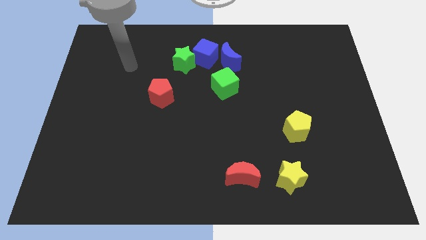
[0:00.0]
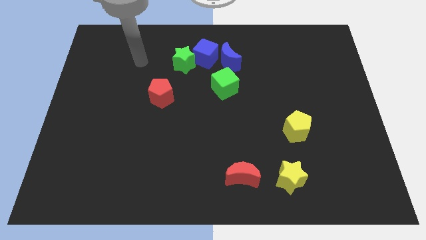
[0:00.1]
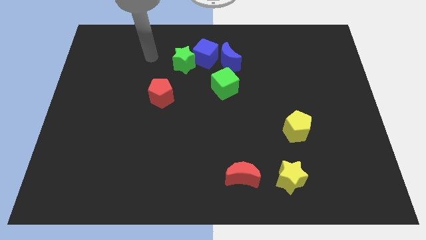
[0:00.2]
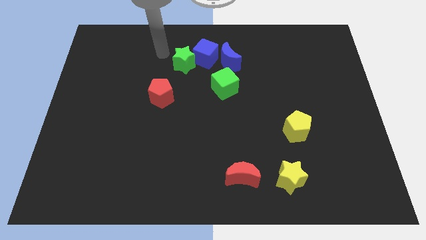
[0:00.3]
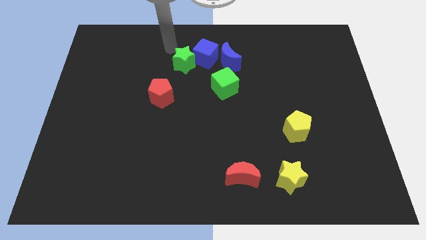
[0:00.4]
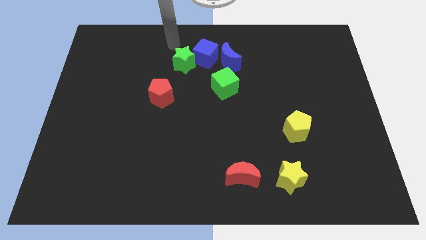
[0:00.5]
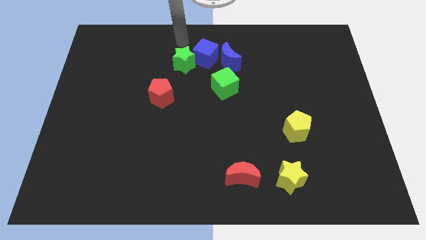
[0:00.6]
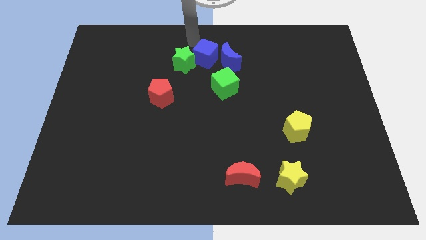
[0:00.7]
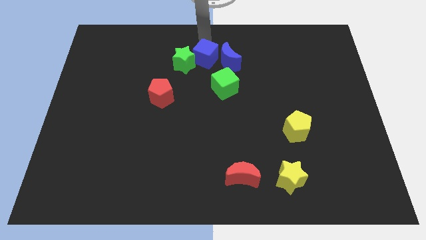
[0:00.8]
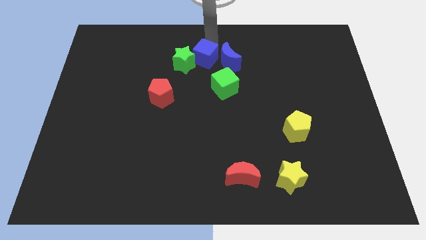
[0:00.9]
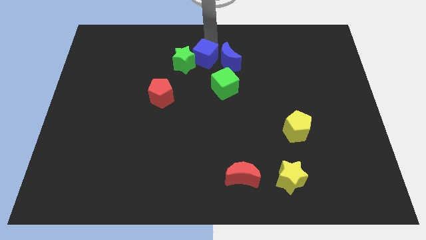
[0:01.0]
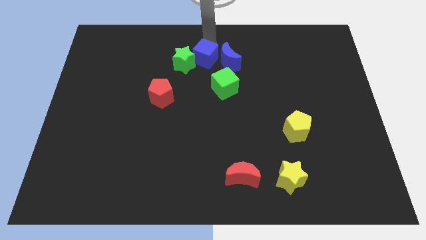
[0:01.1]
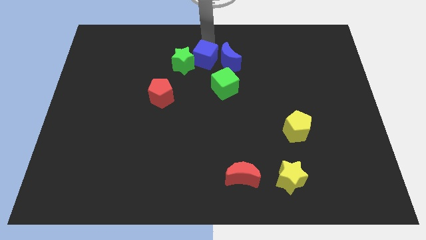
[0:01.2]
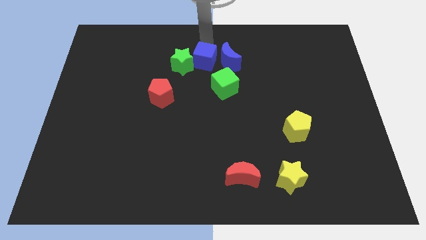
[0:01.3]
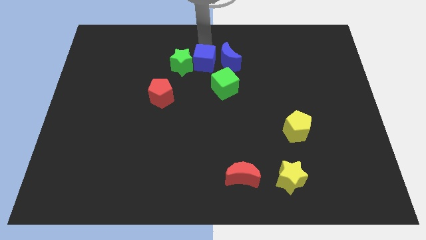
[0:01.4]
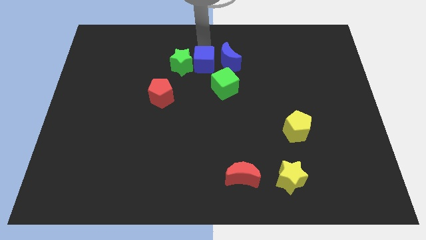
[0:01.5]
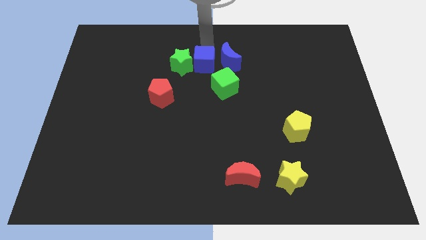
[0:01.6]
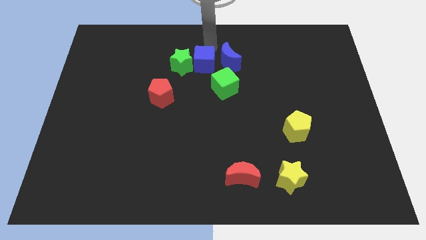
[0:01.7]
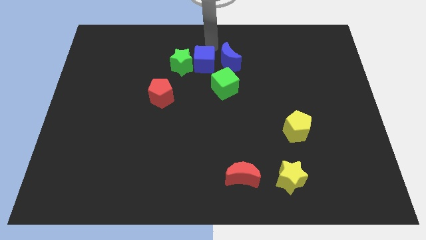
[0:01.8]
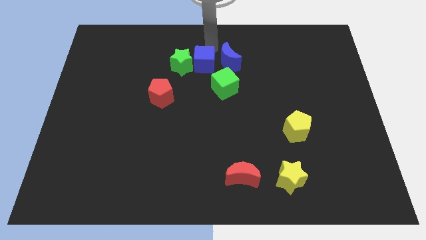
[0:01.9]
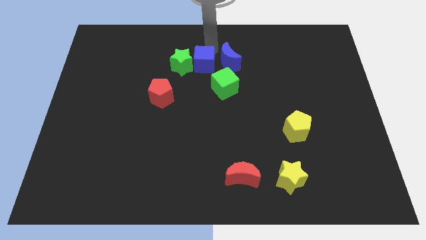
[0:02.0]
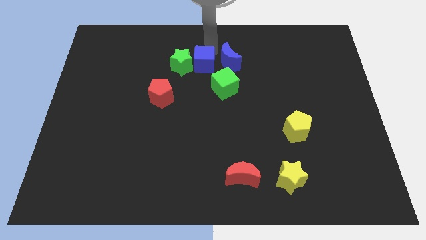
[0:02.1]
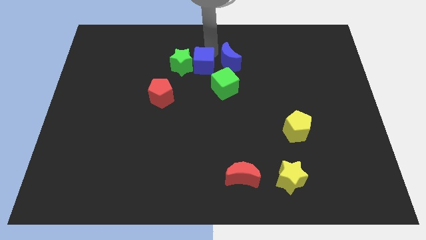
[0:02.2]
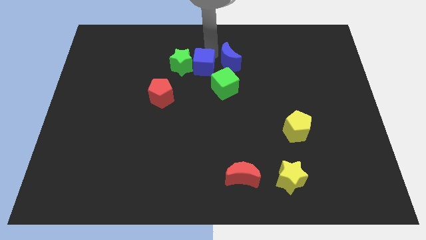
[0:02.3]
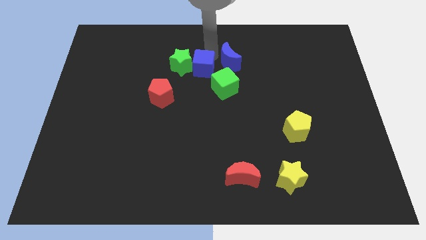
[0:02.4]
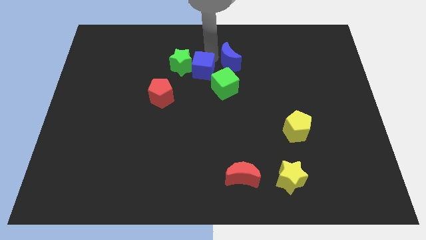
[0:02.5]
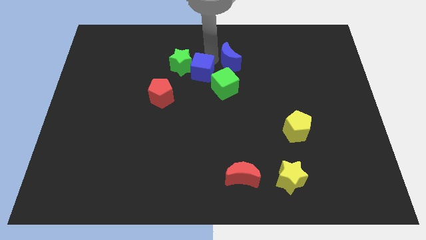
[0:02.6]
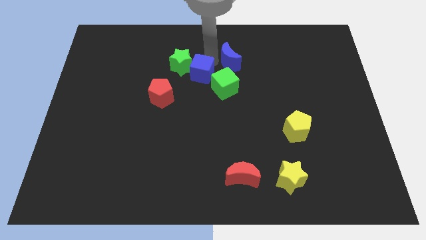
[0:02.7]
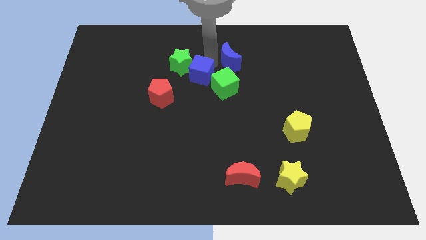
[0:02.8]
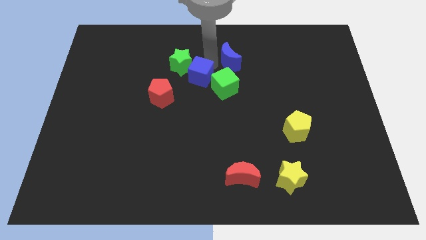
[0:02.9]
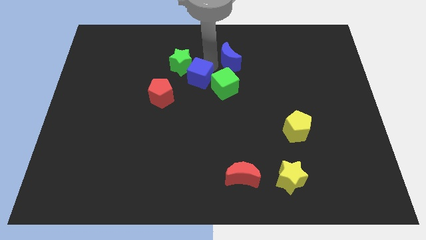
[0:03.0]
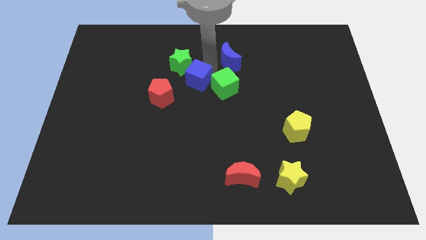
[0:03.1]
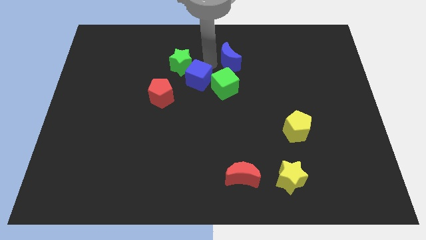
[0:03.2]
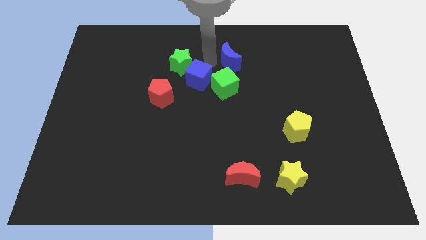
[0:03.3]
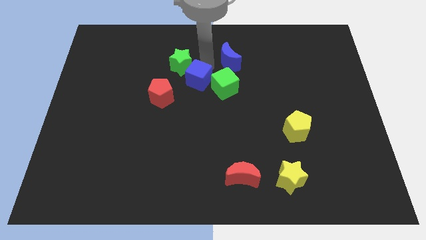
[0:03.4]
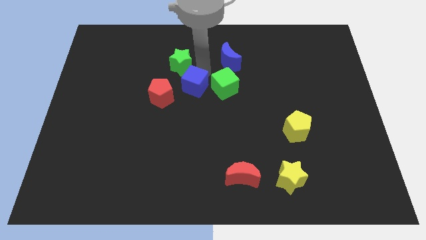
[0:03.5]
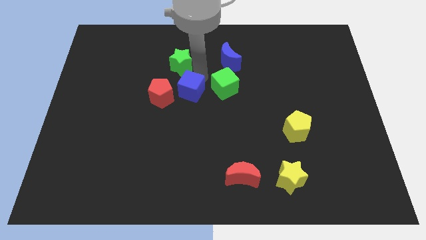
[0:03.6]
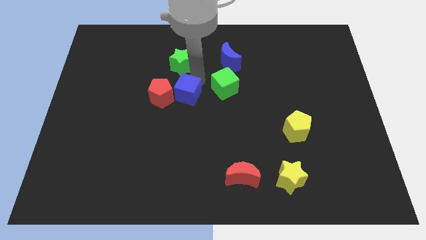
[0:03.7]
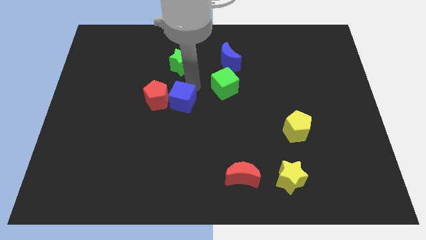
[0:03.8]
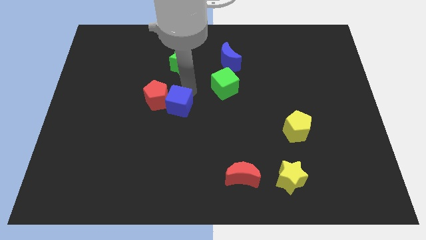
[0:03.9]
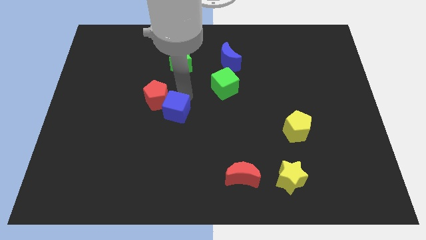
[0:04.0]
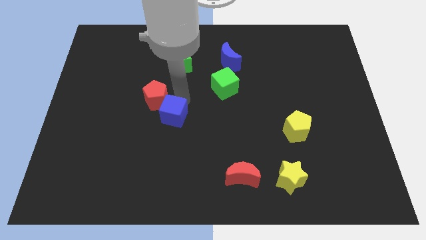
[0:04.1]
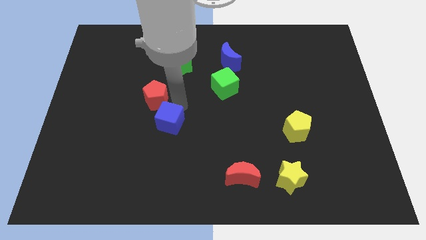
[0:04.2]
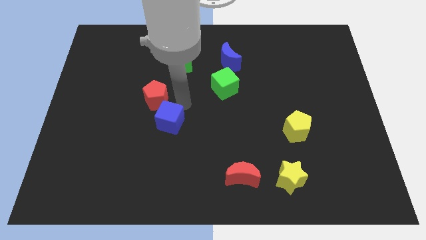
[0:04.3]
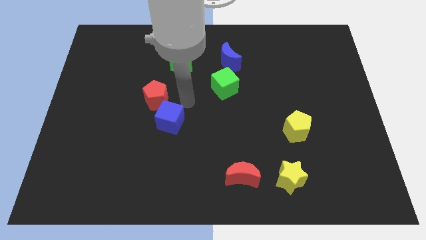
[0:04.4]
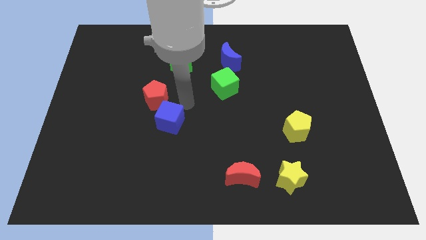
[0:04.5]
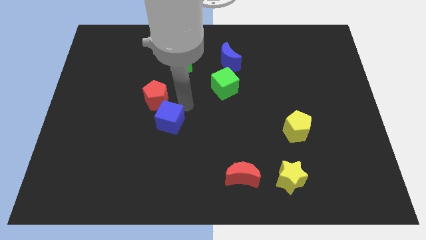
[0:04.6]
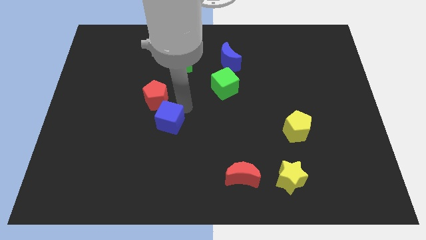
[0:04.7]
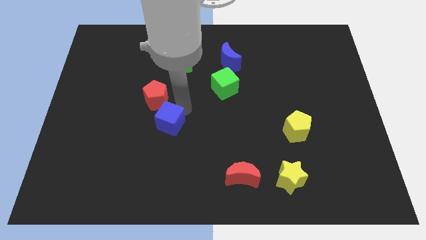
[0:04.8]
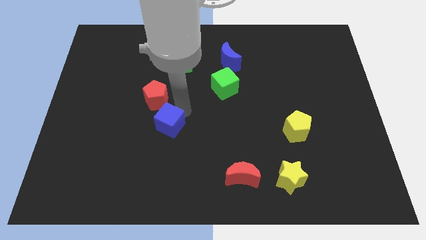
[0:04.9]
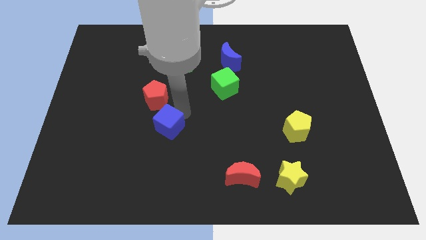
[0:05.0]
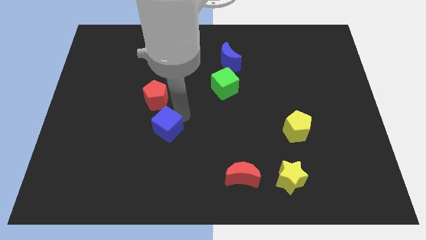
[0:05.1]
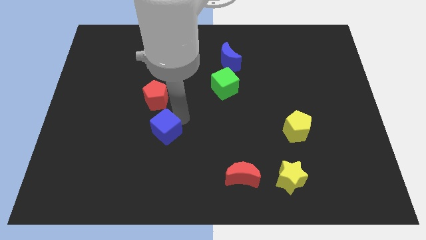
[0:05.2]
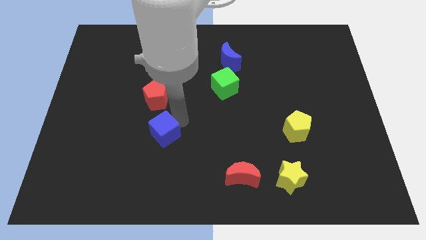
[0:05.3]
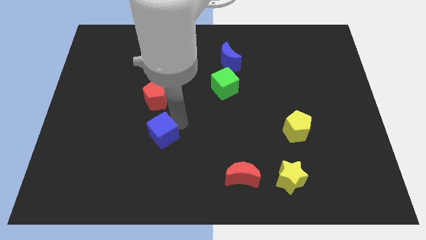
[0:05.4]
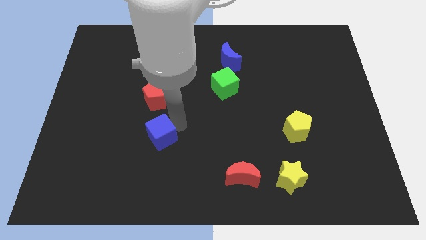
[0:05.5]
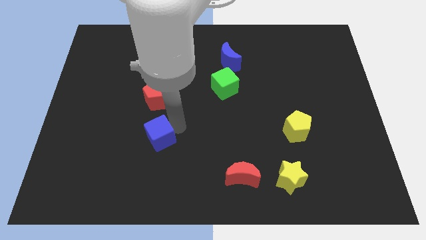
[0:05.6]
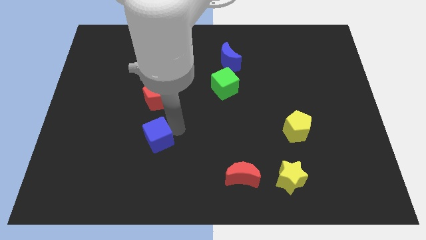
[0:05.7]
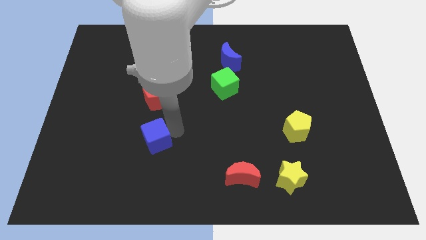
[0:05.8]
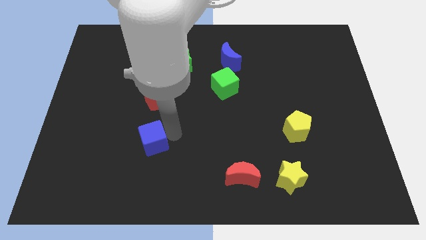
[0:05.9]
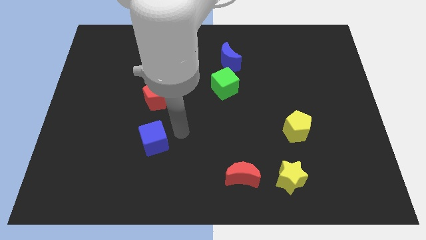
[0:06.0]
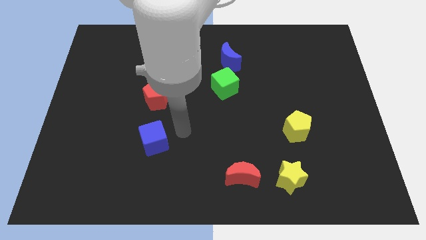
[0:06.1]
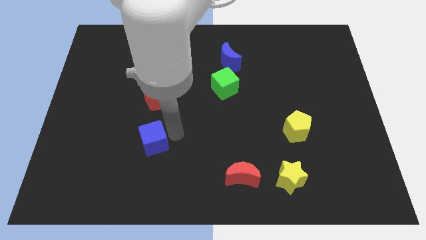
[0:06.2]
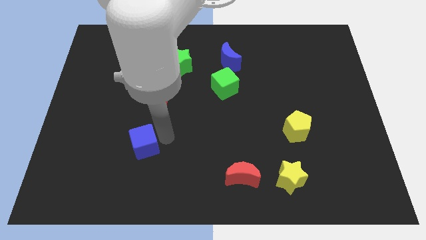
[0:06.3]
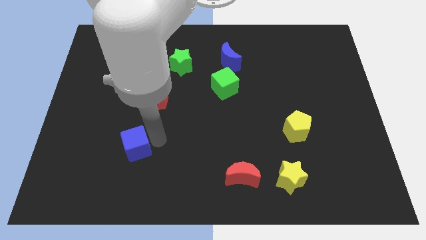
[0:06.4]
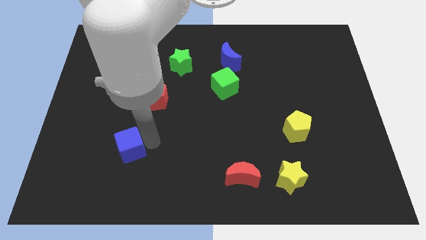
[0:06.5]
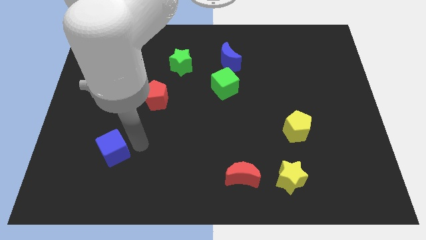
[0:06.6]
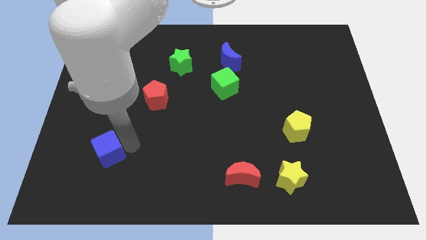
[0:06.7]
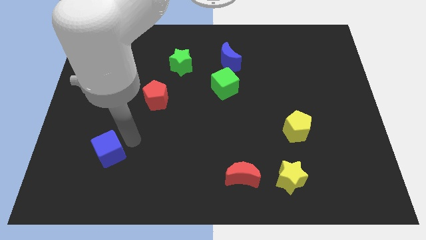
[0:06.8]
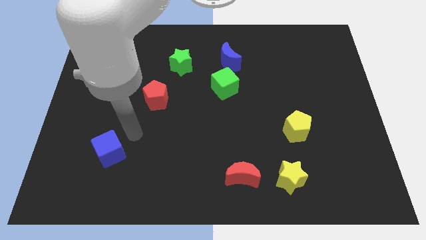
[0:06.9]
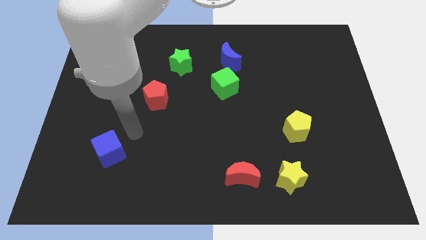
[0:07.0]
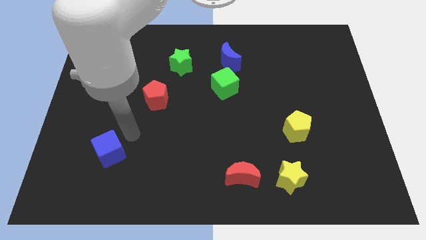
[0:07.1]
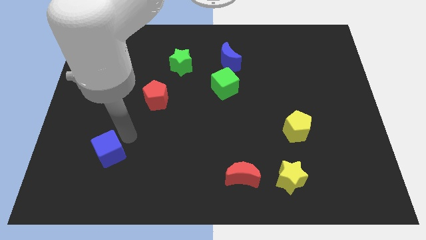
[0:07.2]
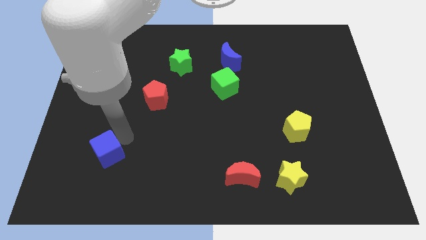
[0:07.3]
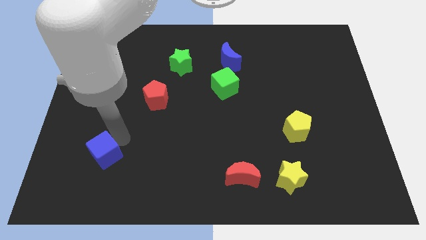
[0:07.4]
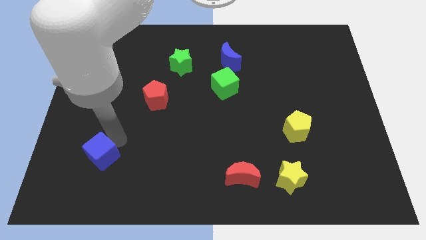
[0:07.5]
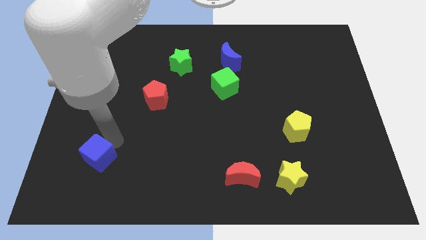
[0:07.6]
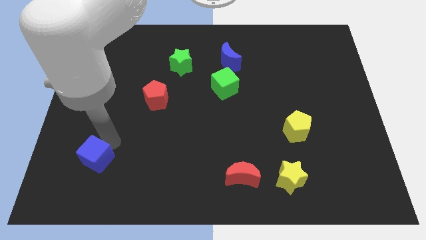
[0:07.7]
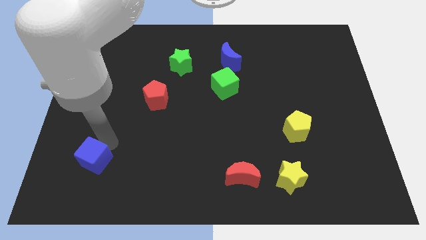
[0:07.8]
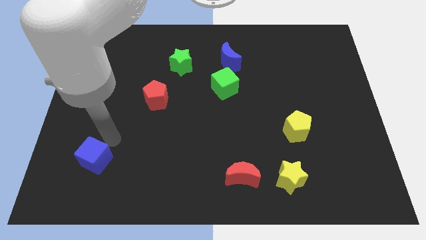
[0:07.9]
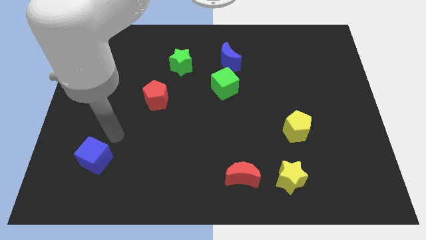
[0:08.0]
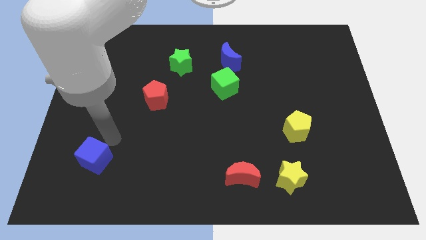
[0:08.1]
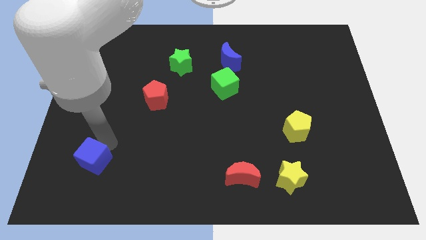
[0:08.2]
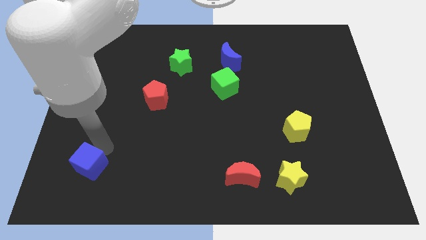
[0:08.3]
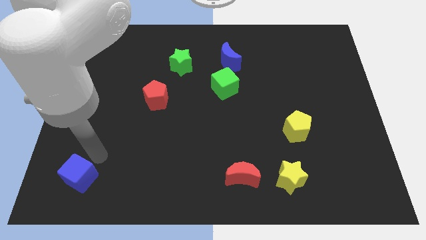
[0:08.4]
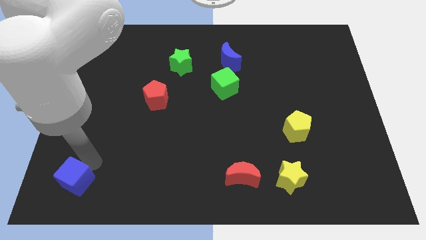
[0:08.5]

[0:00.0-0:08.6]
push the blue cube to the bottom left of the board
